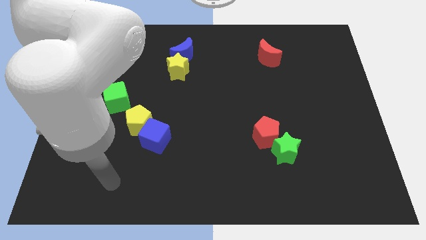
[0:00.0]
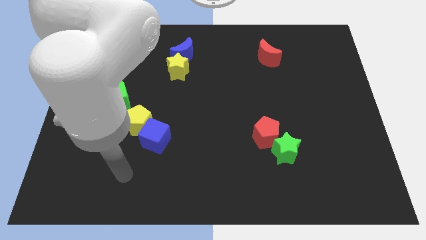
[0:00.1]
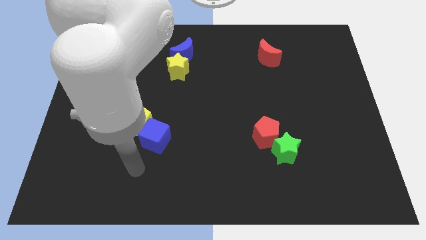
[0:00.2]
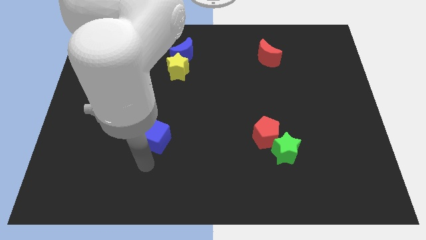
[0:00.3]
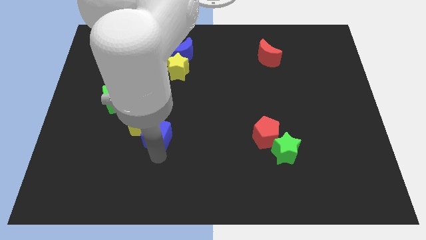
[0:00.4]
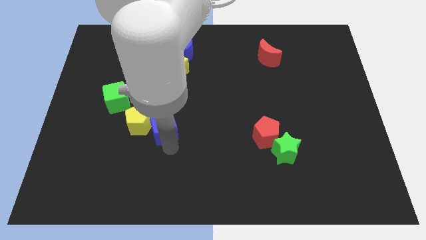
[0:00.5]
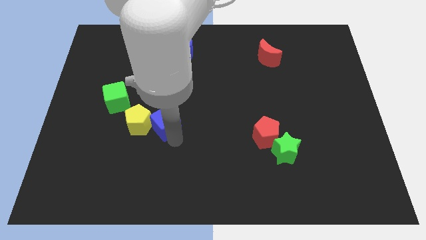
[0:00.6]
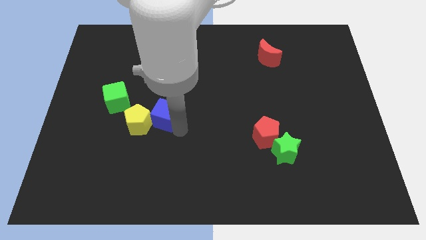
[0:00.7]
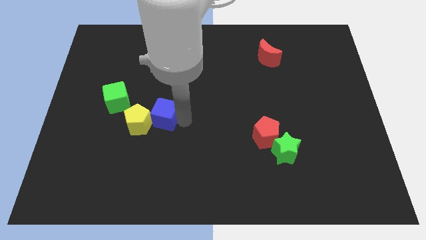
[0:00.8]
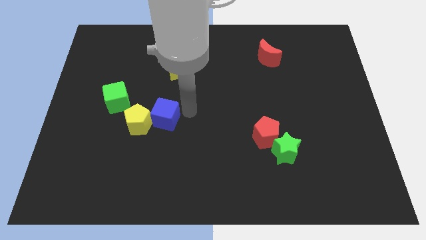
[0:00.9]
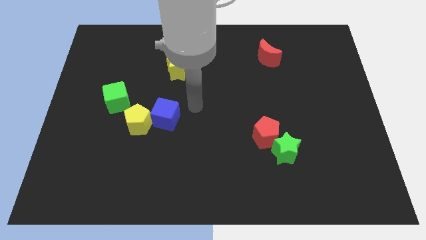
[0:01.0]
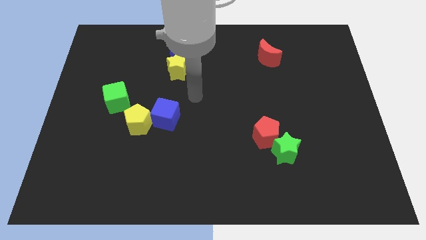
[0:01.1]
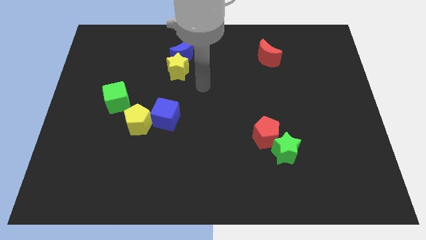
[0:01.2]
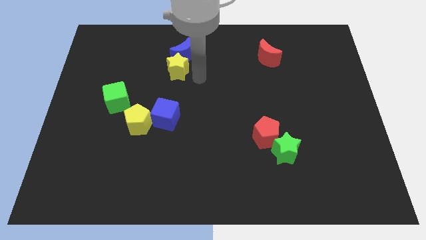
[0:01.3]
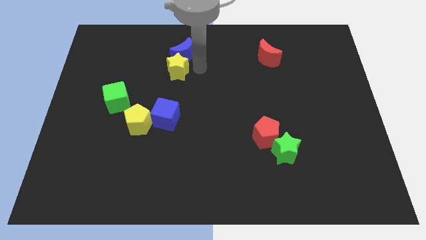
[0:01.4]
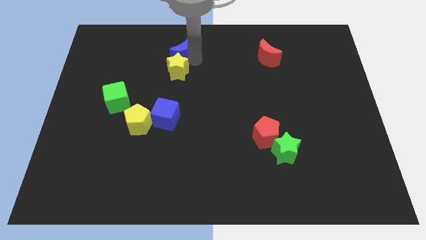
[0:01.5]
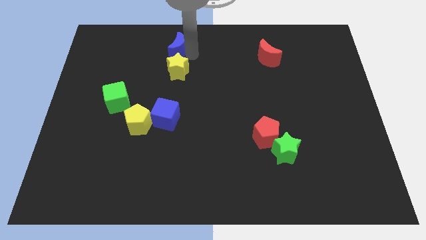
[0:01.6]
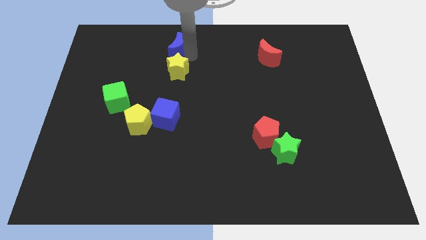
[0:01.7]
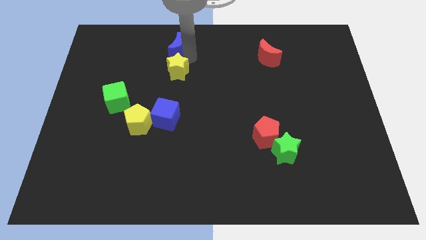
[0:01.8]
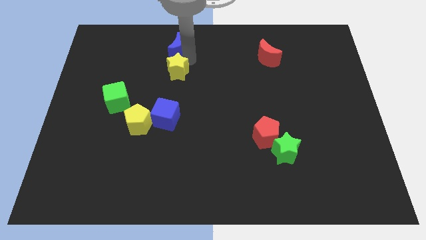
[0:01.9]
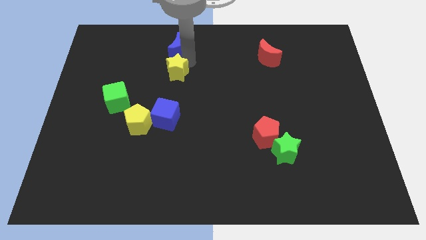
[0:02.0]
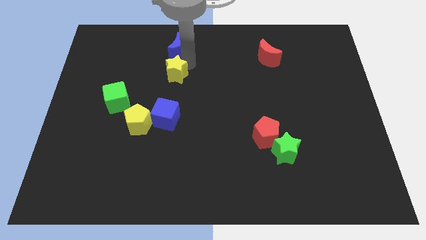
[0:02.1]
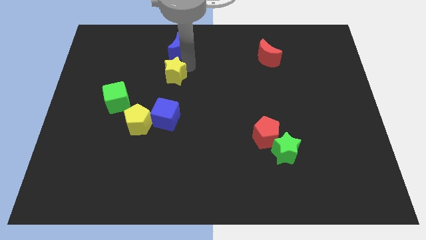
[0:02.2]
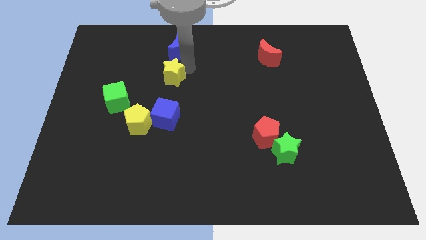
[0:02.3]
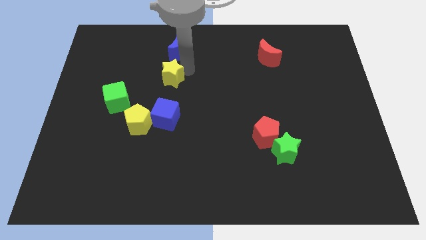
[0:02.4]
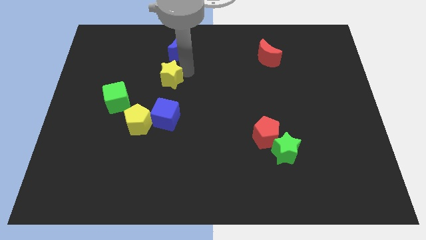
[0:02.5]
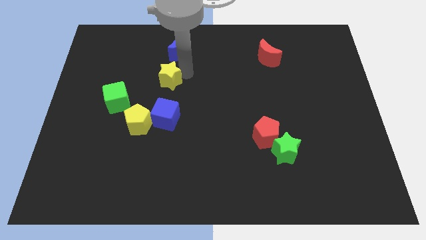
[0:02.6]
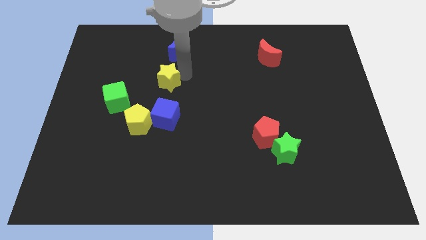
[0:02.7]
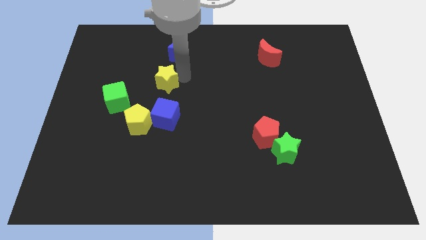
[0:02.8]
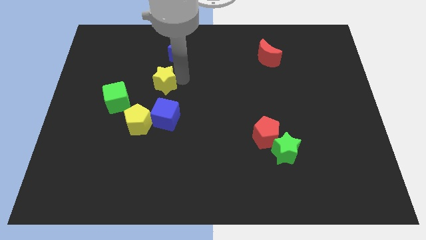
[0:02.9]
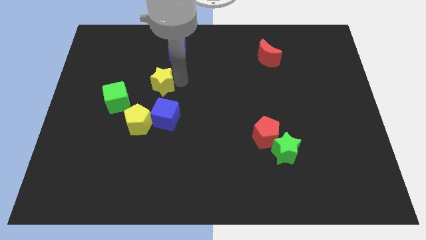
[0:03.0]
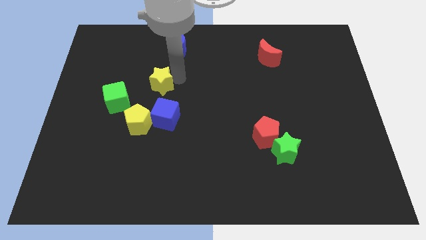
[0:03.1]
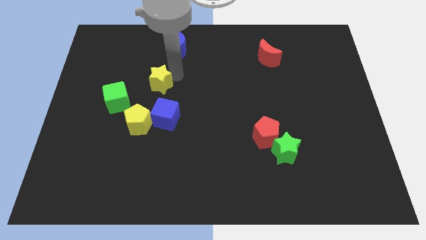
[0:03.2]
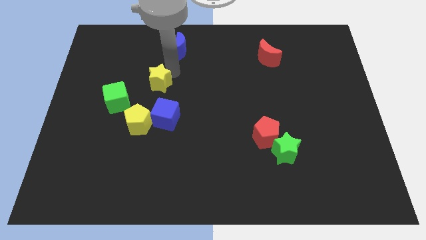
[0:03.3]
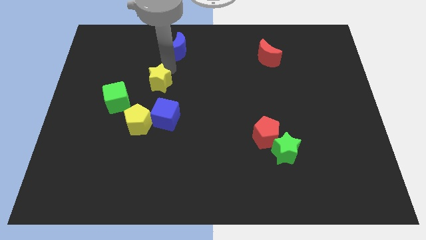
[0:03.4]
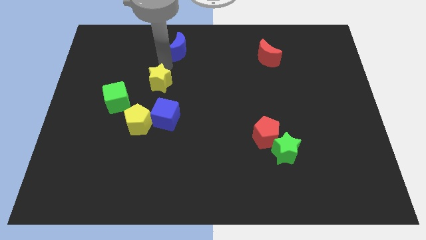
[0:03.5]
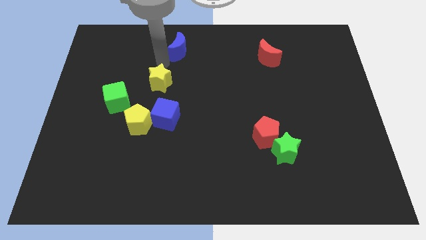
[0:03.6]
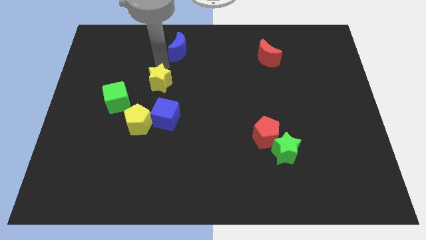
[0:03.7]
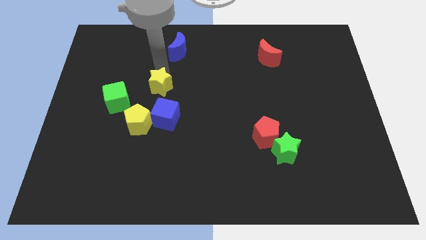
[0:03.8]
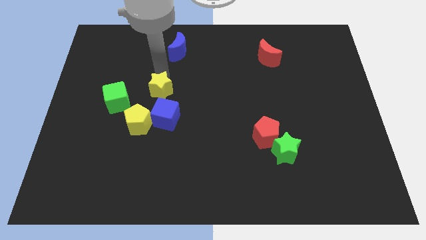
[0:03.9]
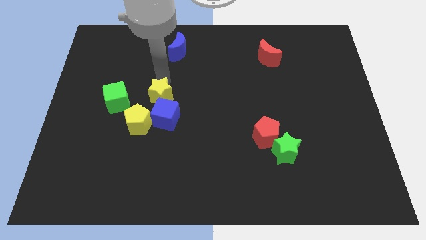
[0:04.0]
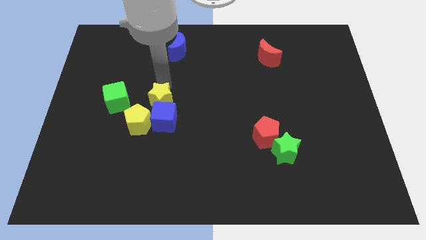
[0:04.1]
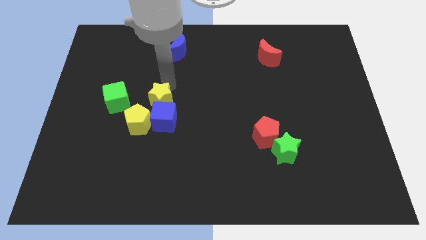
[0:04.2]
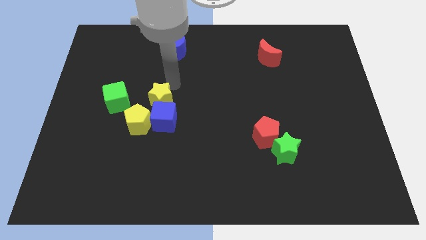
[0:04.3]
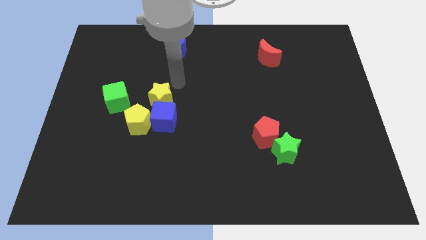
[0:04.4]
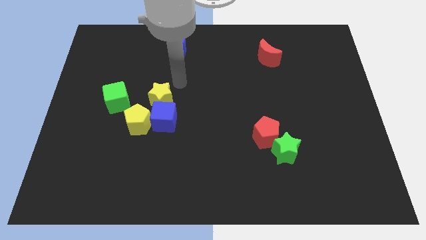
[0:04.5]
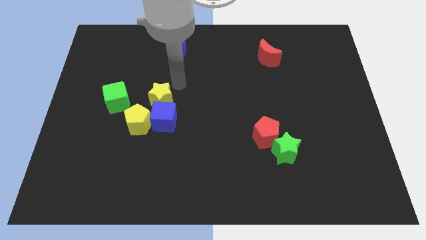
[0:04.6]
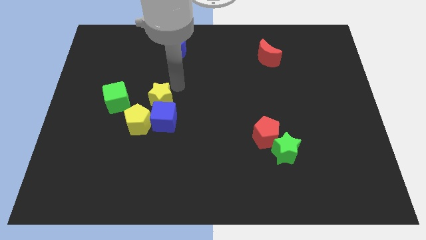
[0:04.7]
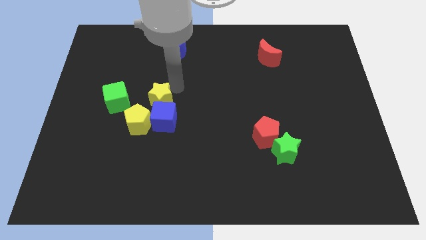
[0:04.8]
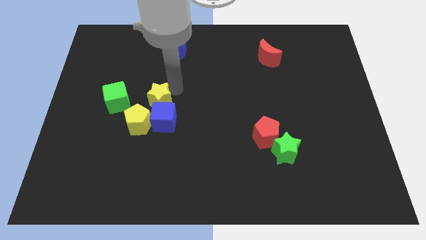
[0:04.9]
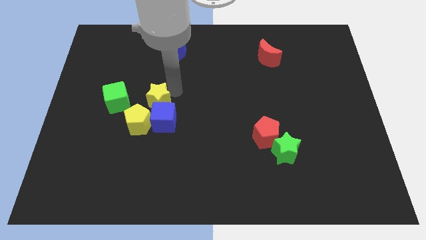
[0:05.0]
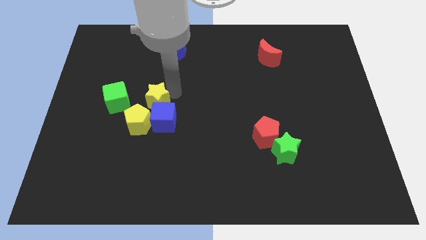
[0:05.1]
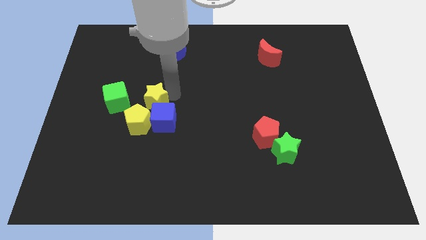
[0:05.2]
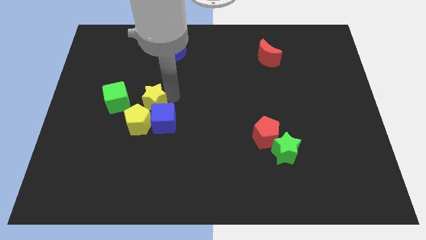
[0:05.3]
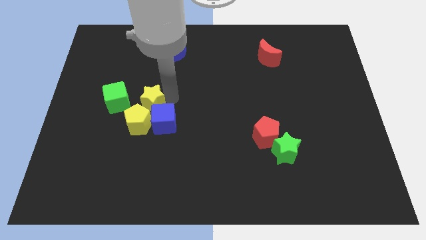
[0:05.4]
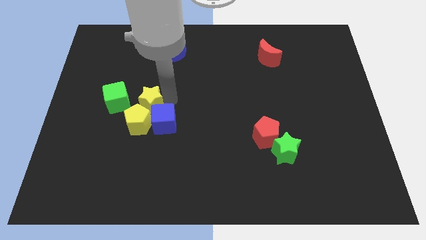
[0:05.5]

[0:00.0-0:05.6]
push the yellow star close to the yellow pentagon
